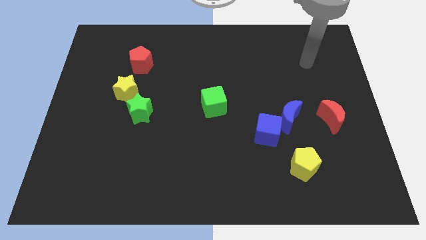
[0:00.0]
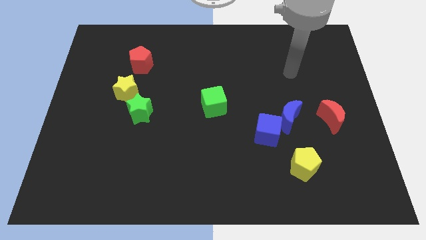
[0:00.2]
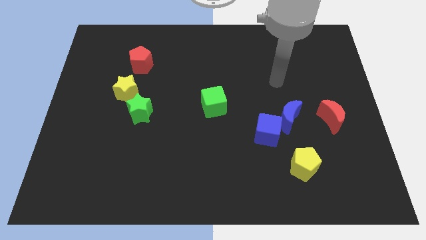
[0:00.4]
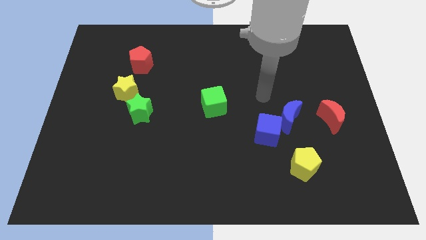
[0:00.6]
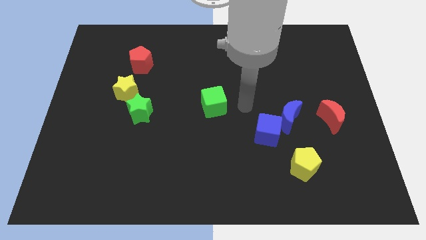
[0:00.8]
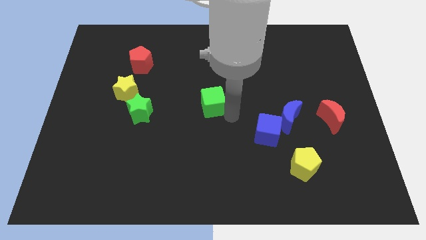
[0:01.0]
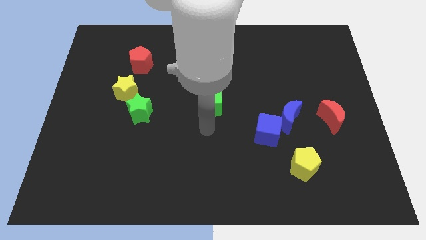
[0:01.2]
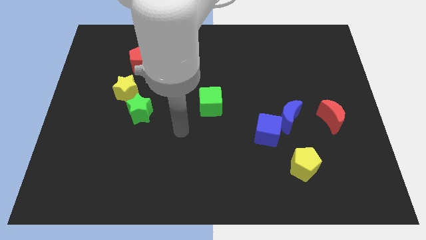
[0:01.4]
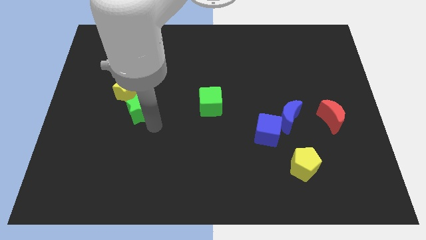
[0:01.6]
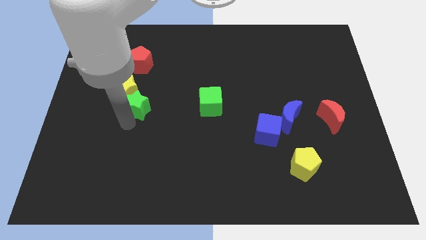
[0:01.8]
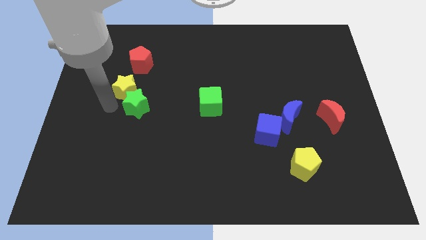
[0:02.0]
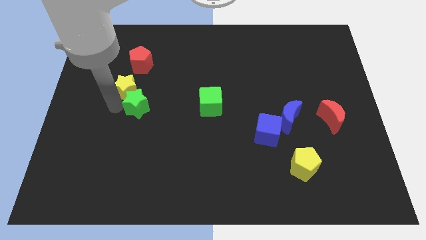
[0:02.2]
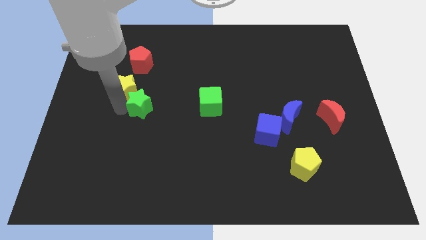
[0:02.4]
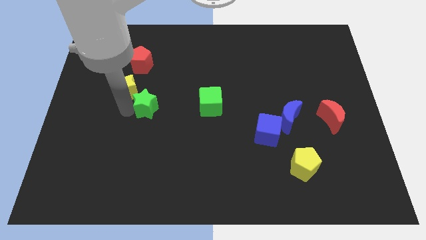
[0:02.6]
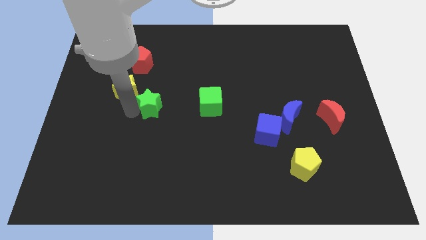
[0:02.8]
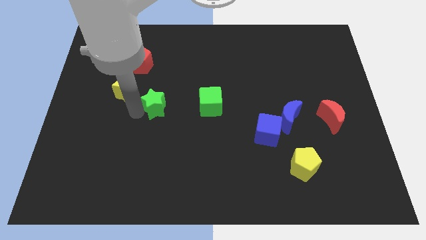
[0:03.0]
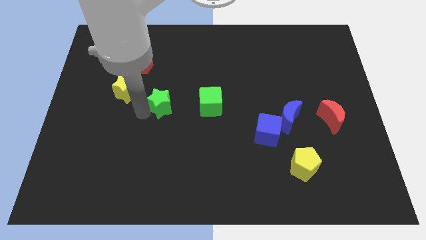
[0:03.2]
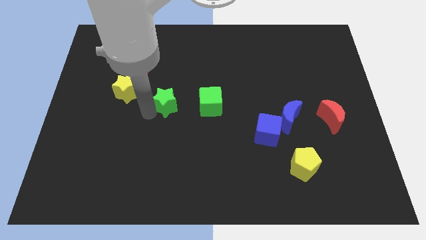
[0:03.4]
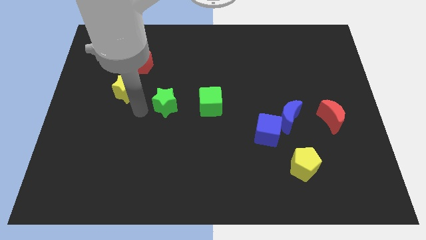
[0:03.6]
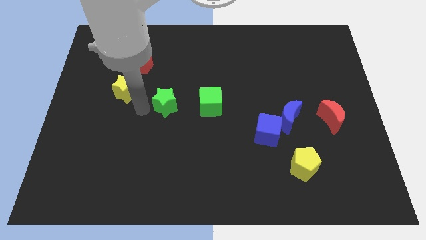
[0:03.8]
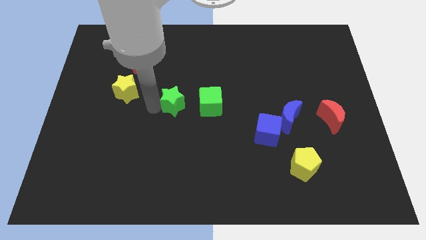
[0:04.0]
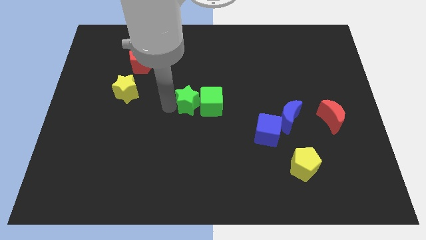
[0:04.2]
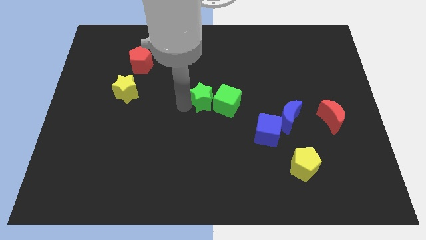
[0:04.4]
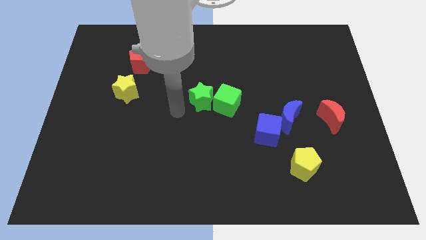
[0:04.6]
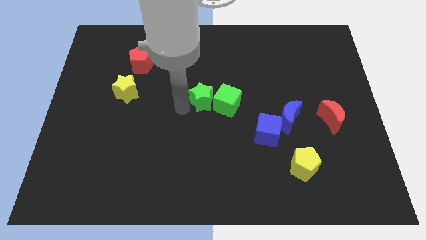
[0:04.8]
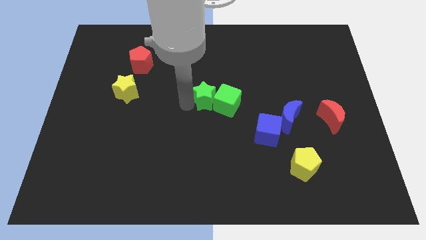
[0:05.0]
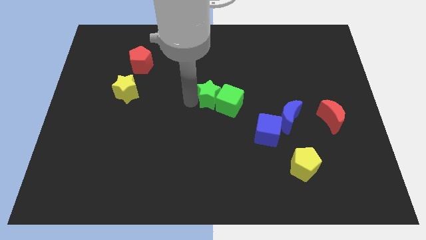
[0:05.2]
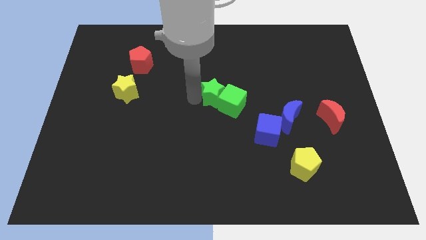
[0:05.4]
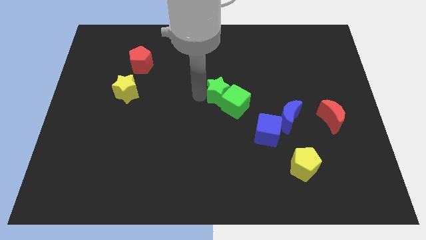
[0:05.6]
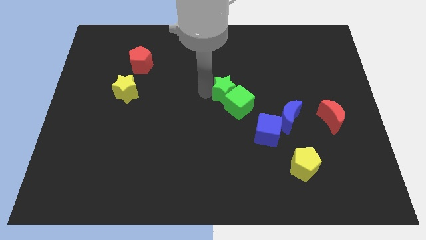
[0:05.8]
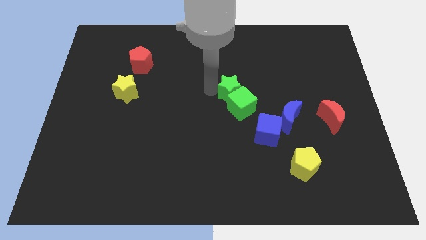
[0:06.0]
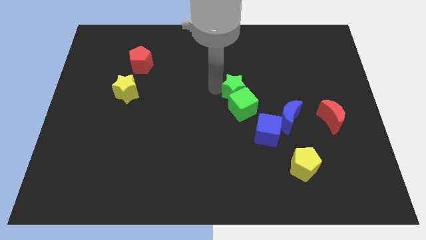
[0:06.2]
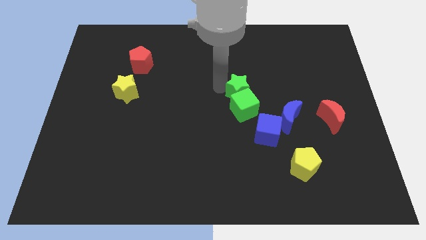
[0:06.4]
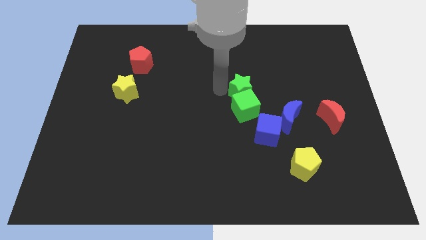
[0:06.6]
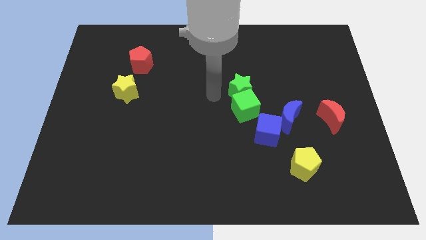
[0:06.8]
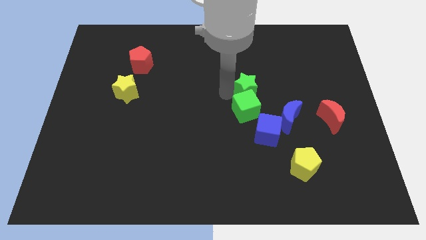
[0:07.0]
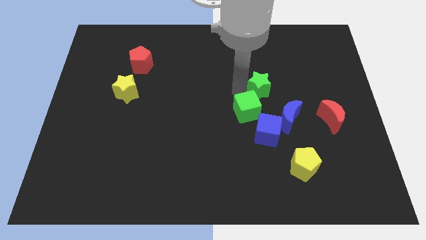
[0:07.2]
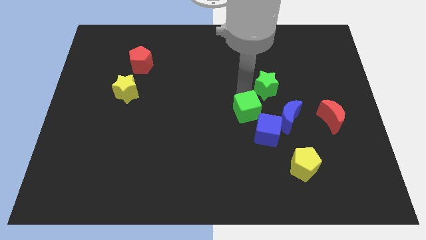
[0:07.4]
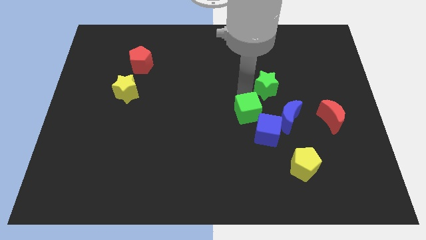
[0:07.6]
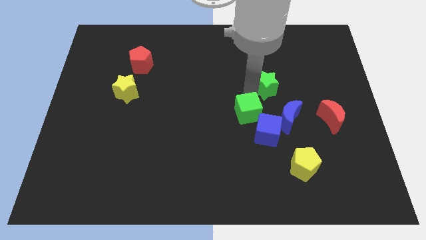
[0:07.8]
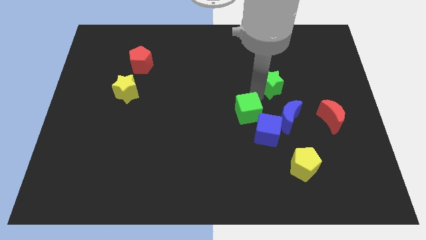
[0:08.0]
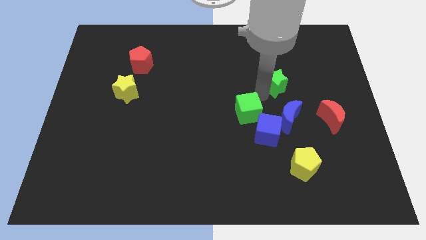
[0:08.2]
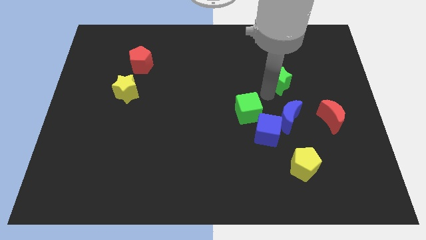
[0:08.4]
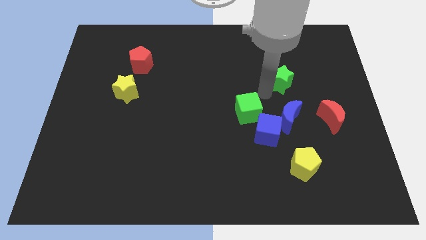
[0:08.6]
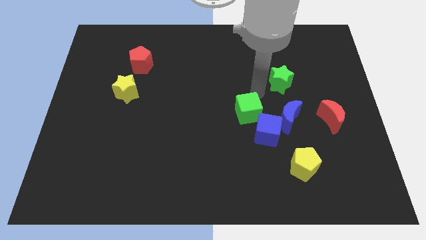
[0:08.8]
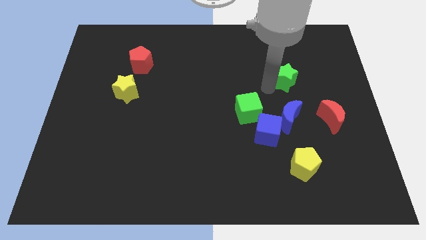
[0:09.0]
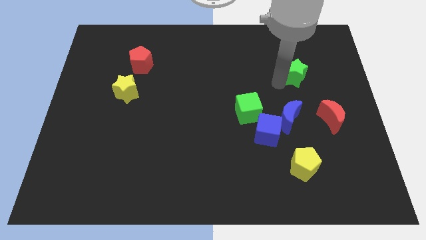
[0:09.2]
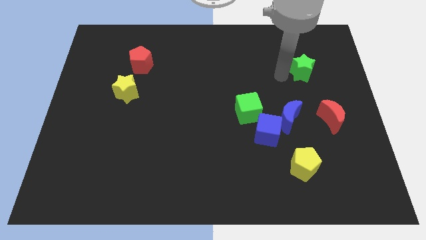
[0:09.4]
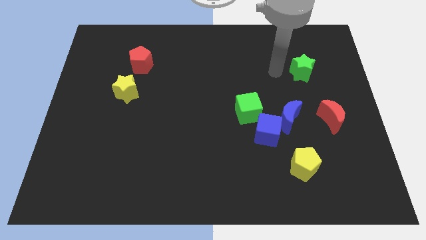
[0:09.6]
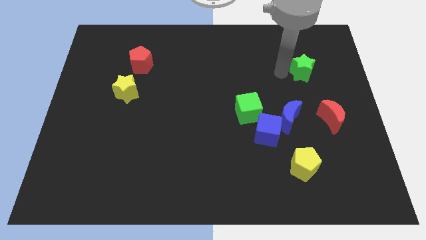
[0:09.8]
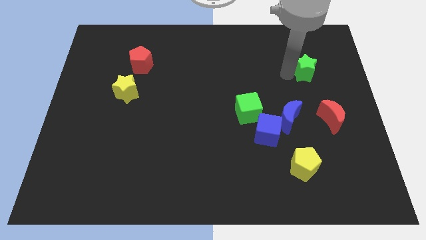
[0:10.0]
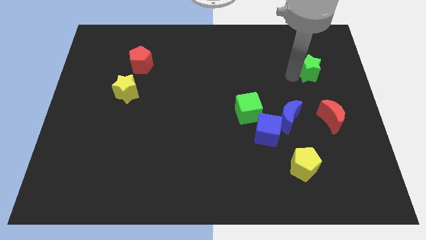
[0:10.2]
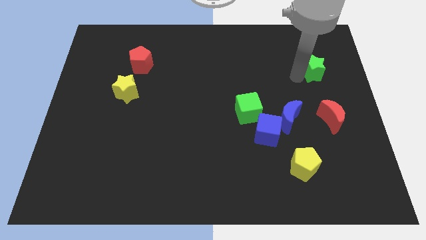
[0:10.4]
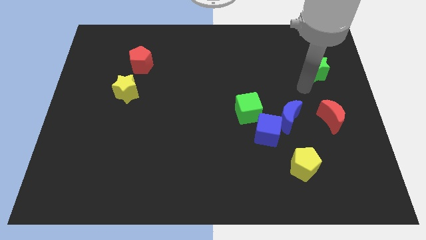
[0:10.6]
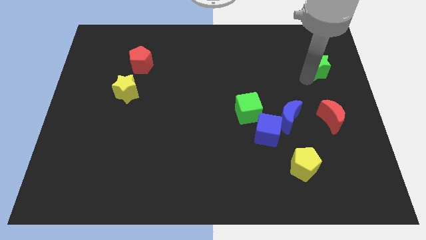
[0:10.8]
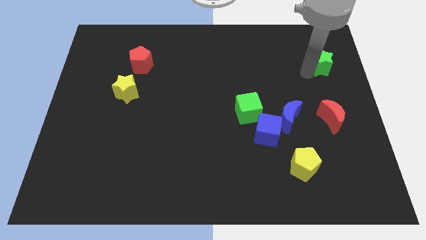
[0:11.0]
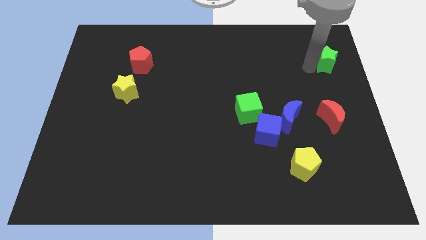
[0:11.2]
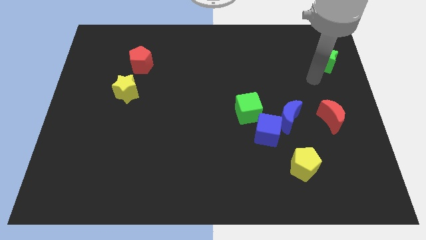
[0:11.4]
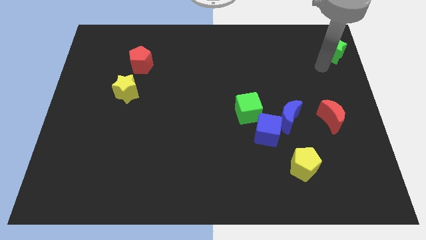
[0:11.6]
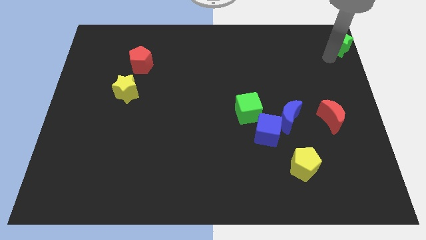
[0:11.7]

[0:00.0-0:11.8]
move the green star to the top right

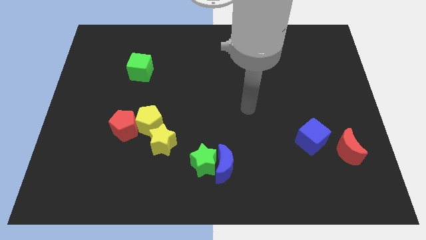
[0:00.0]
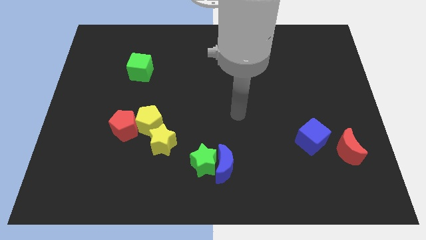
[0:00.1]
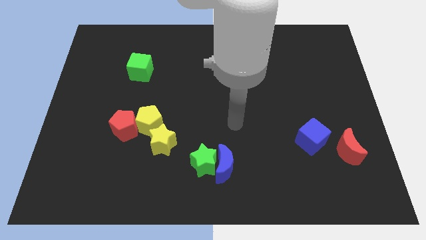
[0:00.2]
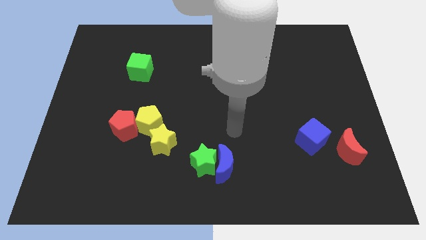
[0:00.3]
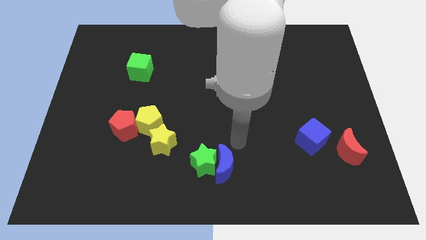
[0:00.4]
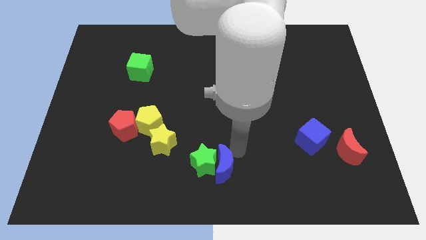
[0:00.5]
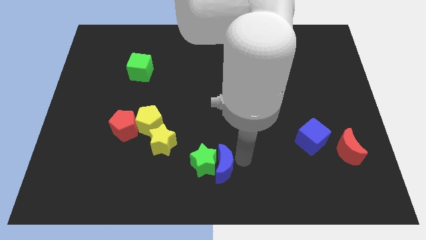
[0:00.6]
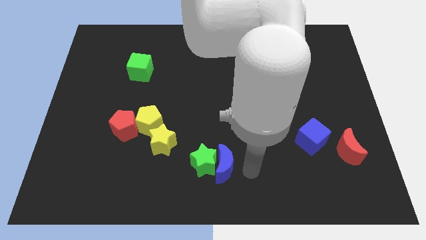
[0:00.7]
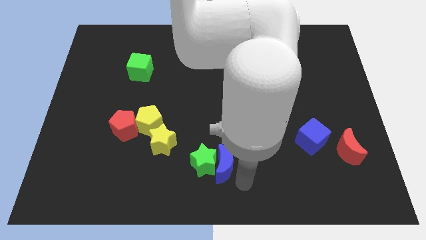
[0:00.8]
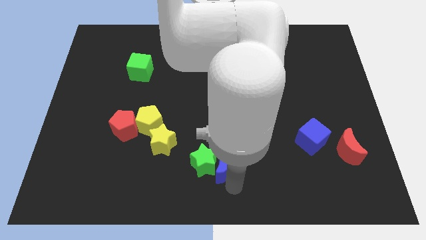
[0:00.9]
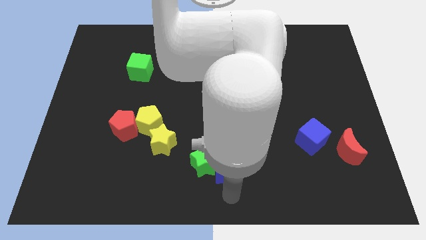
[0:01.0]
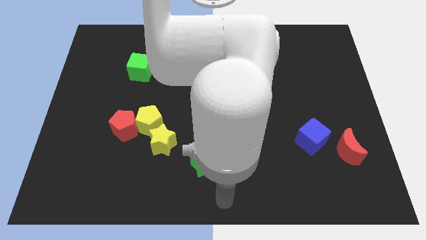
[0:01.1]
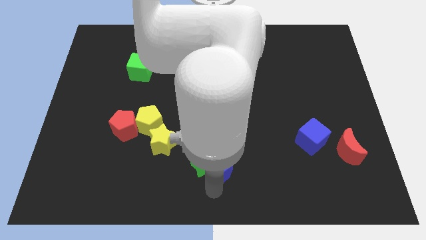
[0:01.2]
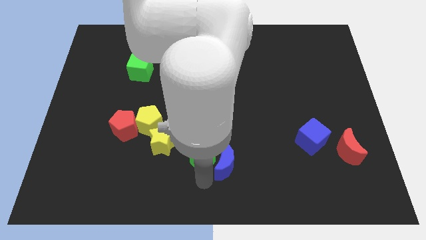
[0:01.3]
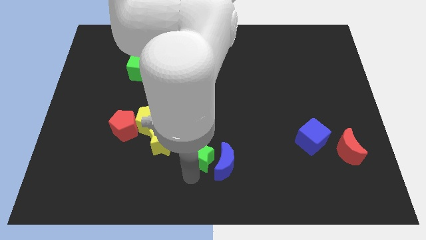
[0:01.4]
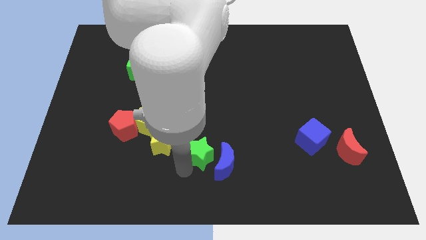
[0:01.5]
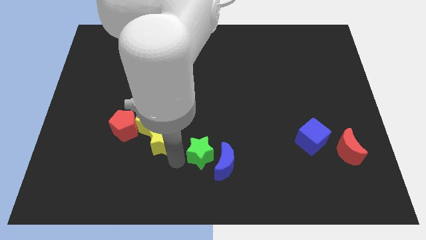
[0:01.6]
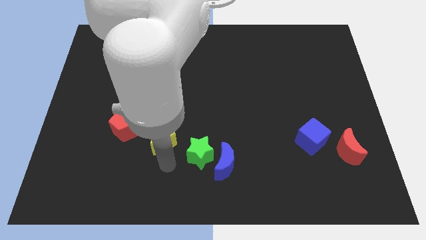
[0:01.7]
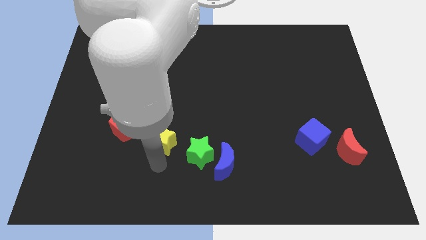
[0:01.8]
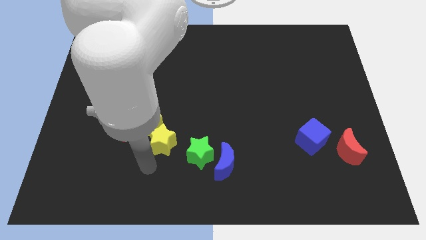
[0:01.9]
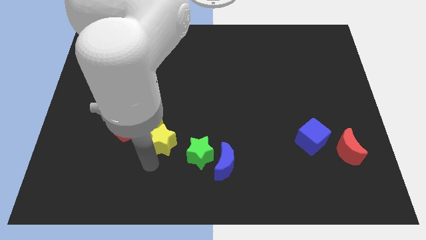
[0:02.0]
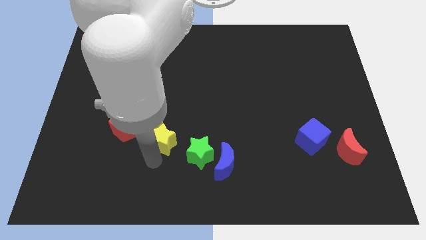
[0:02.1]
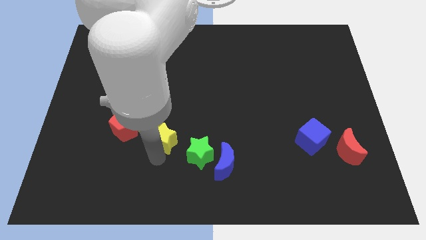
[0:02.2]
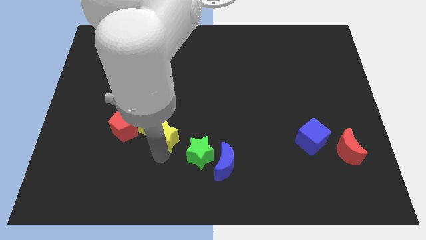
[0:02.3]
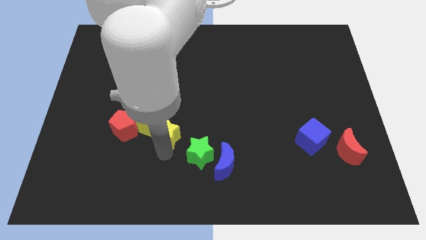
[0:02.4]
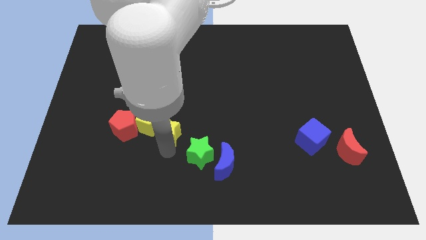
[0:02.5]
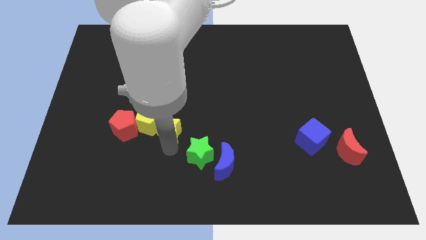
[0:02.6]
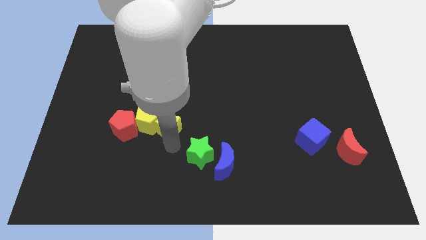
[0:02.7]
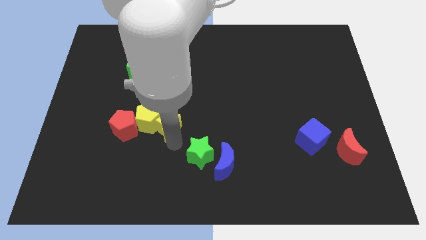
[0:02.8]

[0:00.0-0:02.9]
push the yellow star to the center
